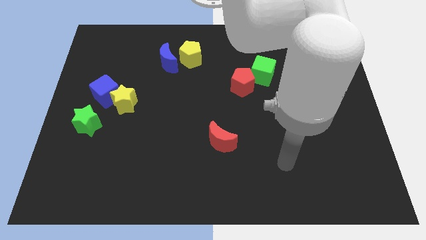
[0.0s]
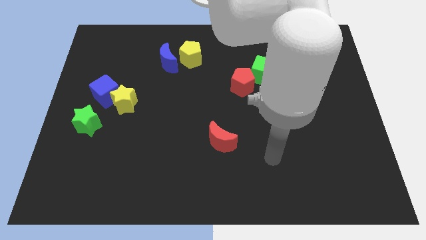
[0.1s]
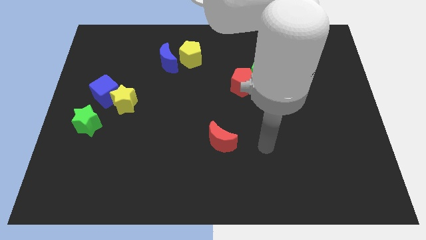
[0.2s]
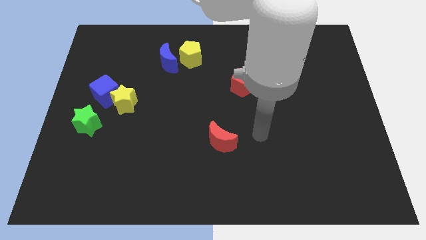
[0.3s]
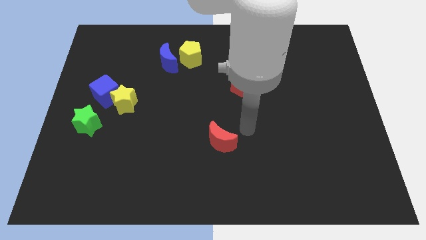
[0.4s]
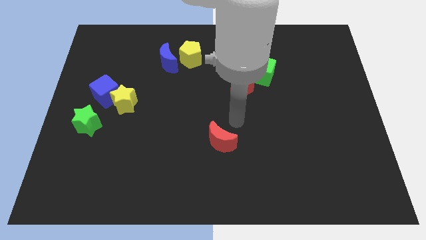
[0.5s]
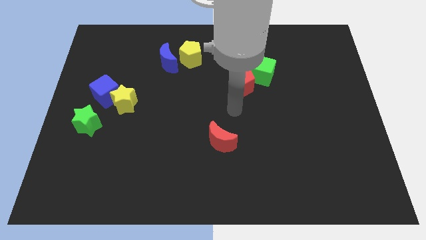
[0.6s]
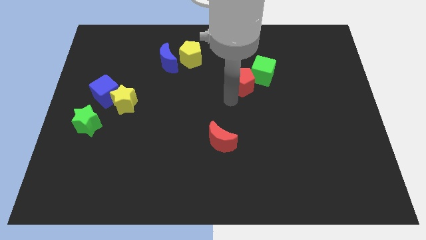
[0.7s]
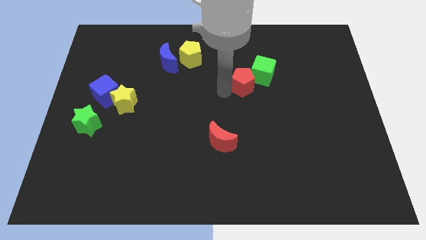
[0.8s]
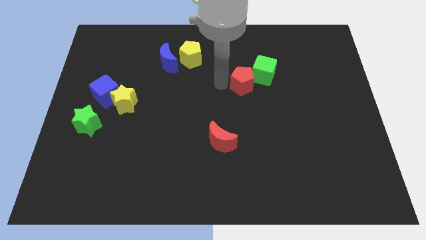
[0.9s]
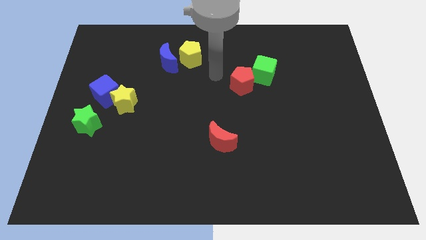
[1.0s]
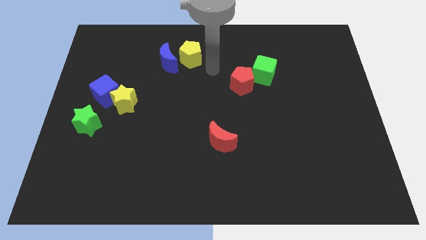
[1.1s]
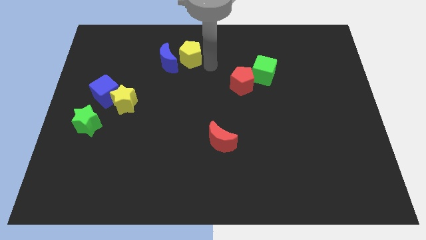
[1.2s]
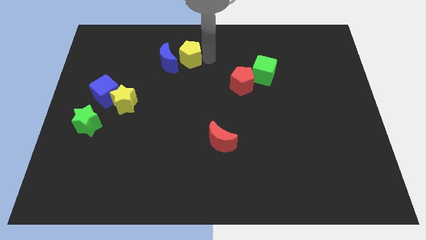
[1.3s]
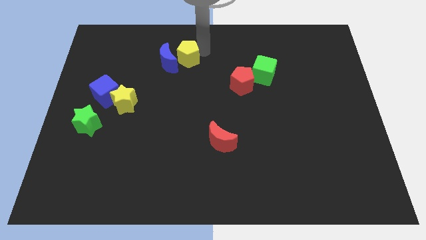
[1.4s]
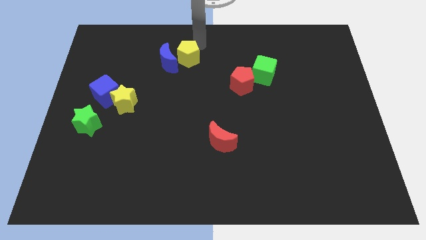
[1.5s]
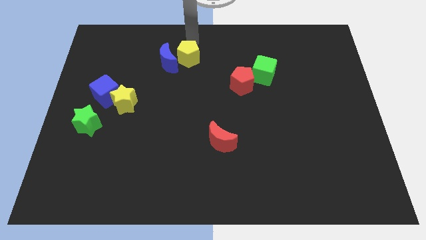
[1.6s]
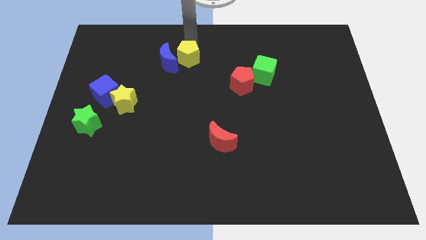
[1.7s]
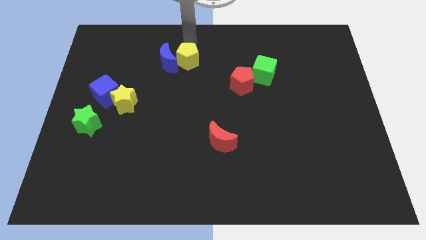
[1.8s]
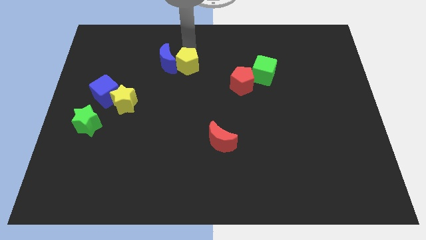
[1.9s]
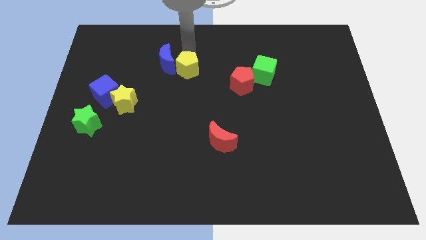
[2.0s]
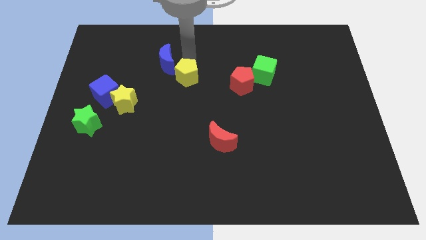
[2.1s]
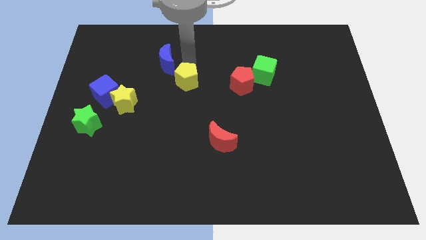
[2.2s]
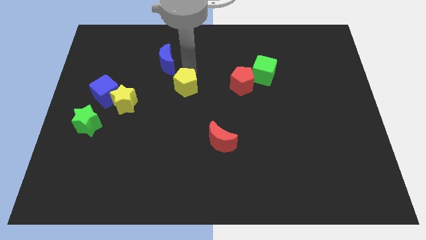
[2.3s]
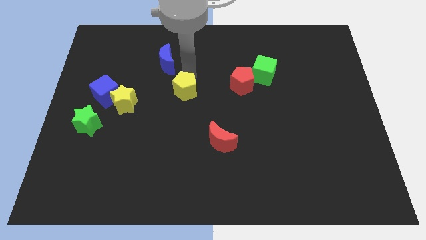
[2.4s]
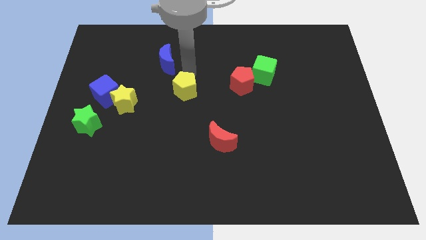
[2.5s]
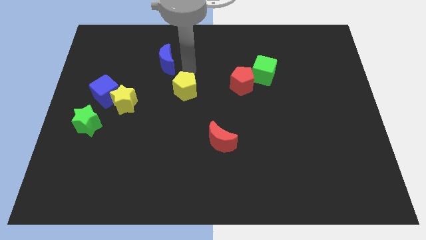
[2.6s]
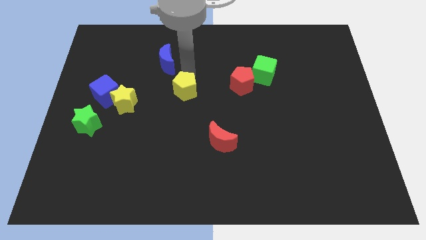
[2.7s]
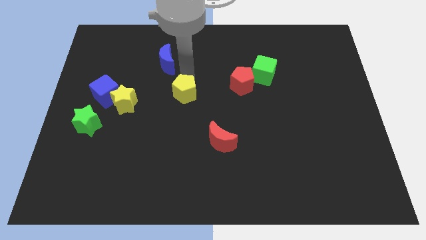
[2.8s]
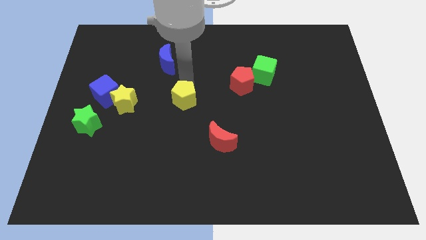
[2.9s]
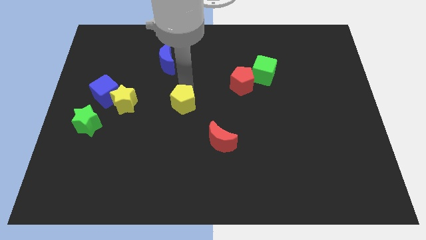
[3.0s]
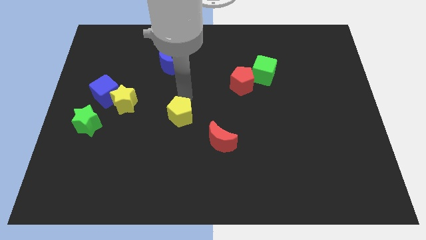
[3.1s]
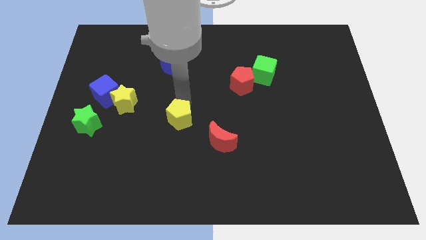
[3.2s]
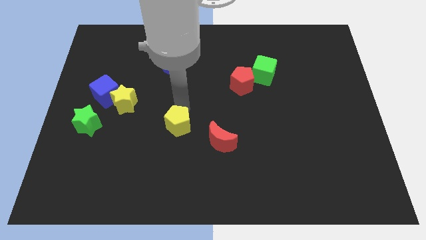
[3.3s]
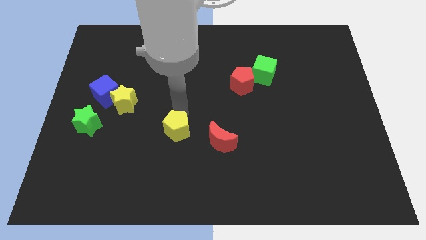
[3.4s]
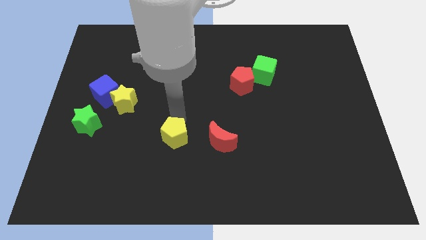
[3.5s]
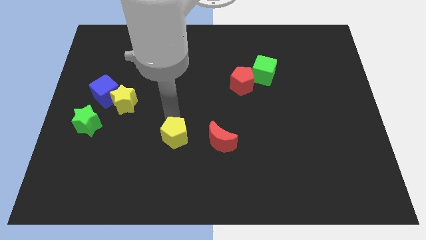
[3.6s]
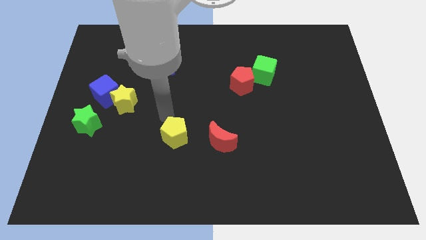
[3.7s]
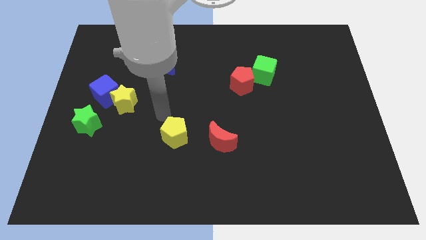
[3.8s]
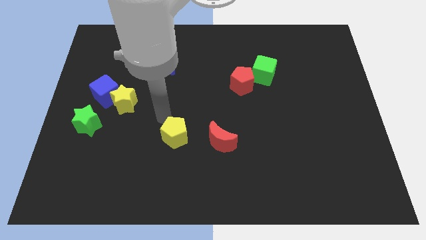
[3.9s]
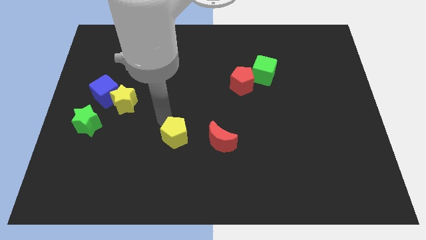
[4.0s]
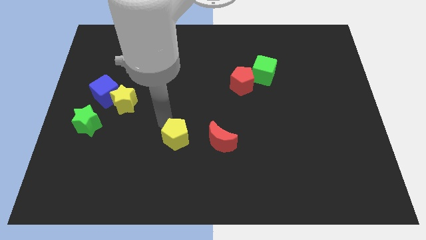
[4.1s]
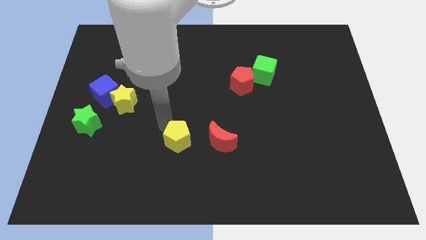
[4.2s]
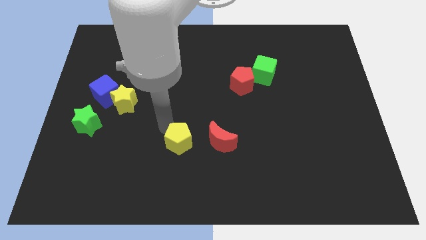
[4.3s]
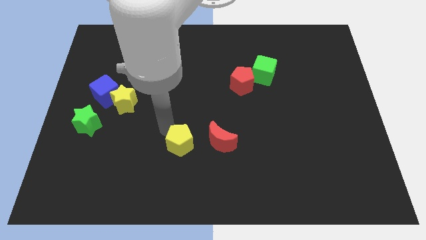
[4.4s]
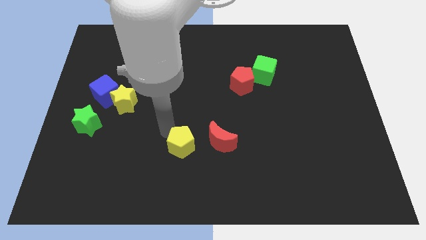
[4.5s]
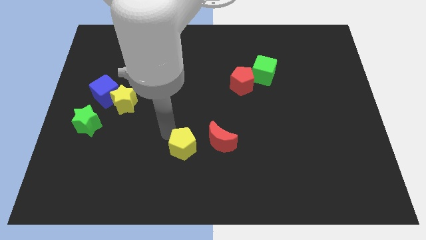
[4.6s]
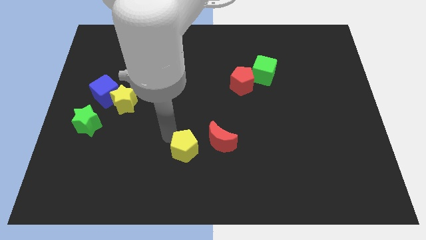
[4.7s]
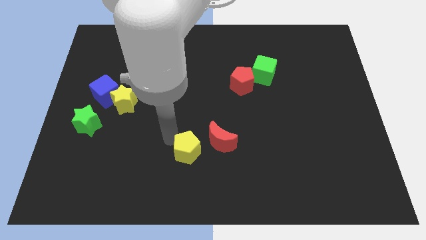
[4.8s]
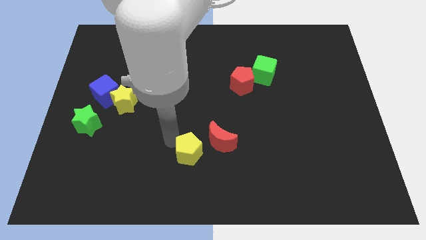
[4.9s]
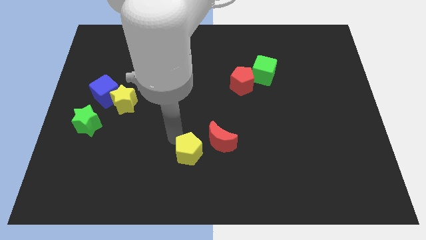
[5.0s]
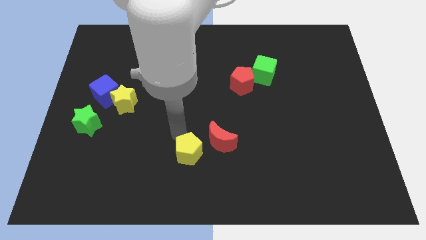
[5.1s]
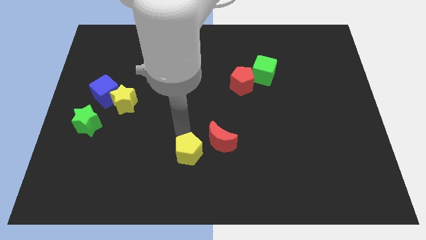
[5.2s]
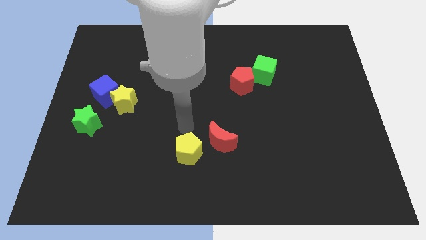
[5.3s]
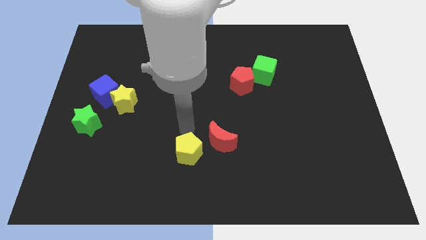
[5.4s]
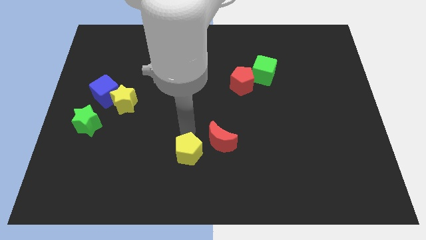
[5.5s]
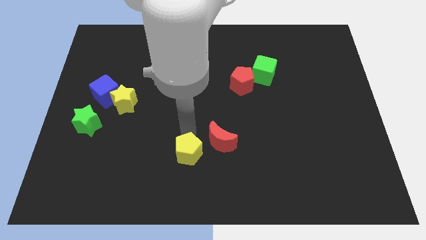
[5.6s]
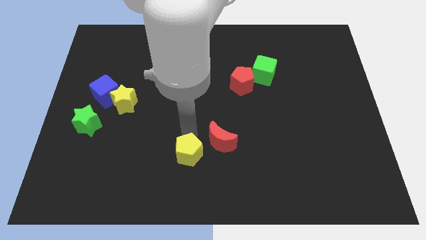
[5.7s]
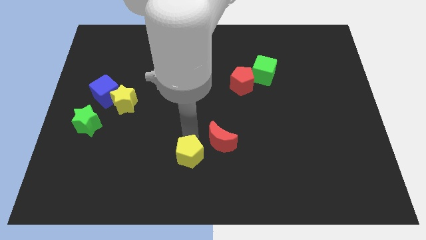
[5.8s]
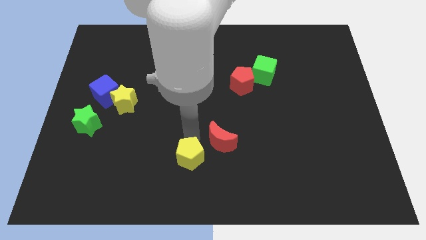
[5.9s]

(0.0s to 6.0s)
slide the yellow pentagon to the bottom
